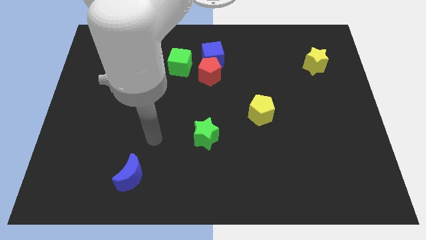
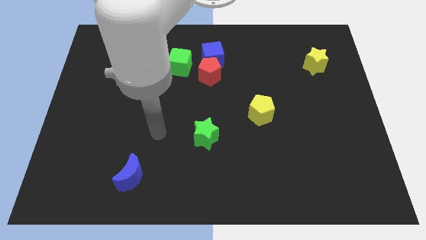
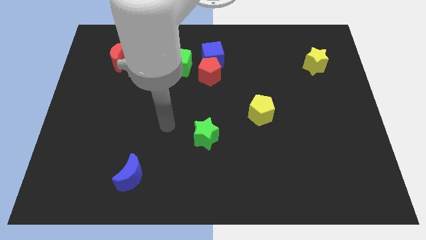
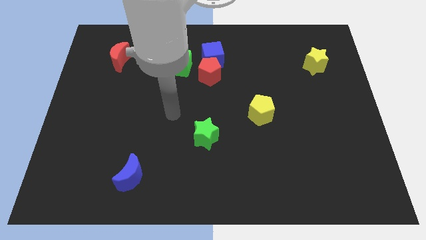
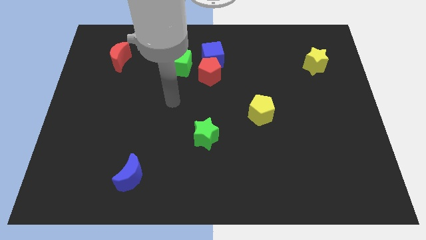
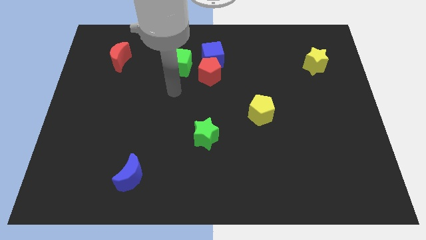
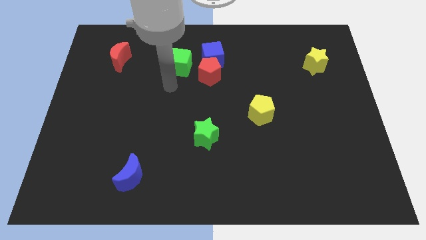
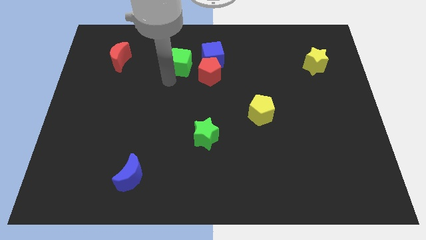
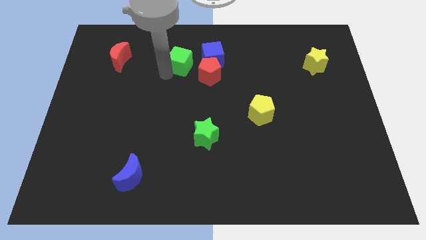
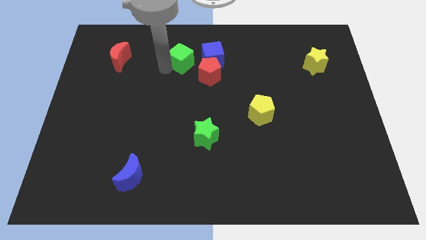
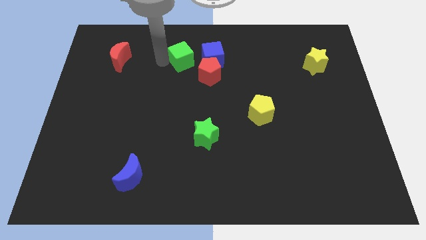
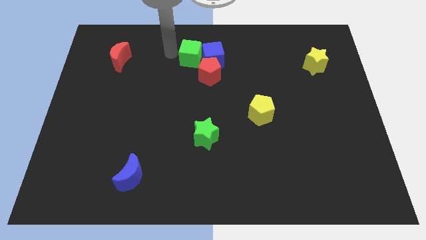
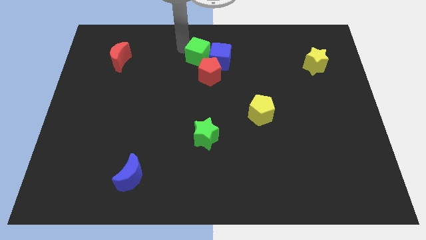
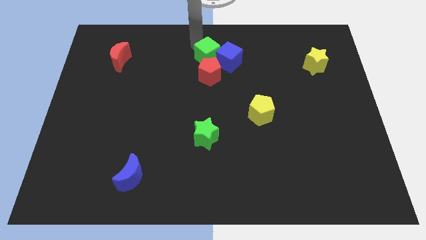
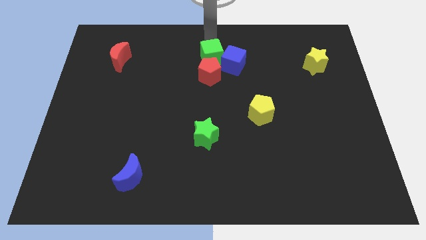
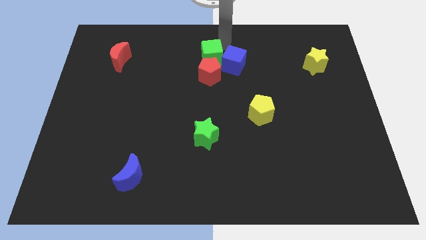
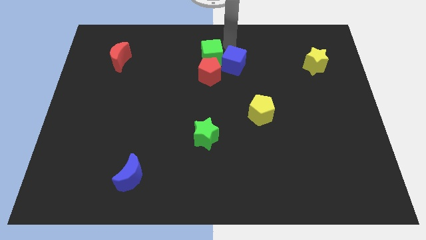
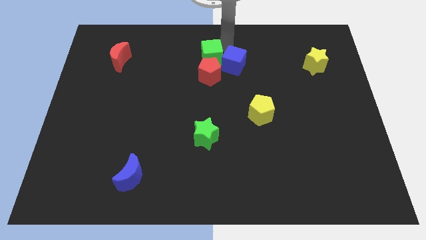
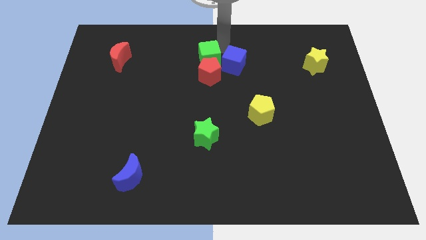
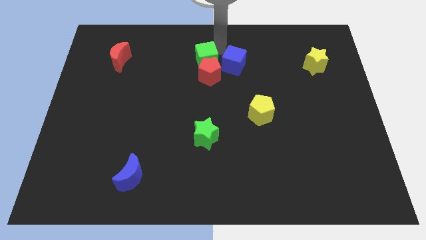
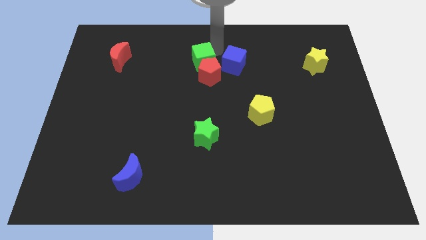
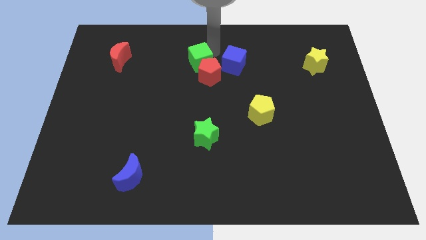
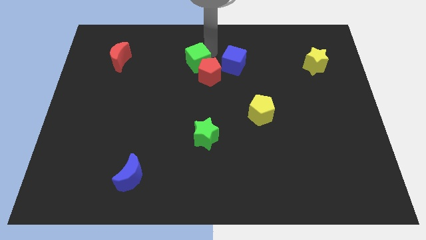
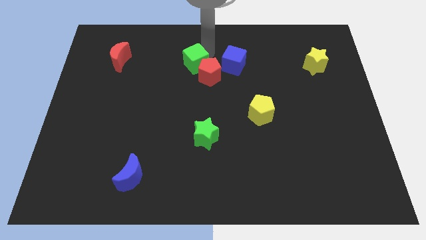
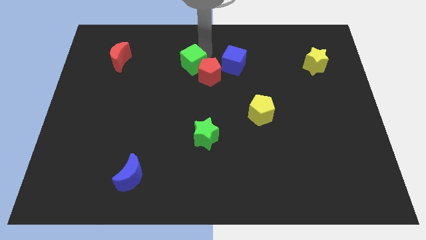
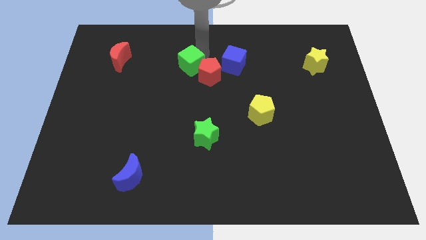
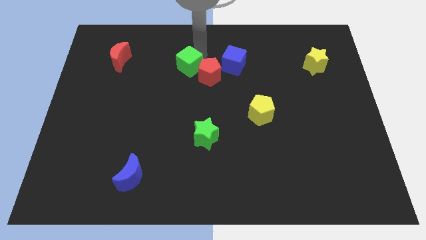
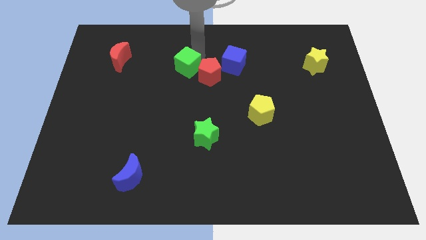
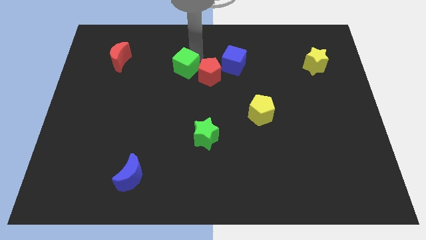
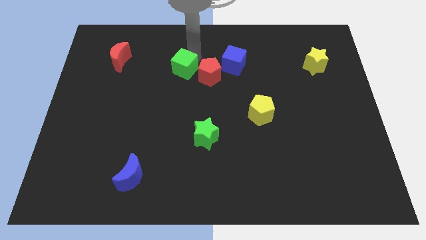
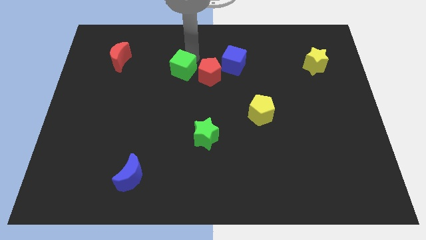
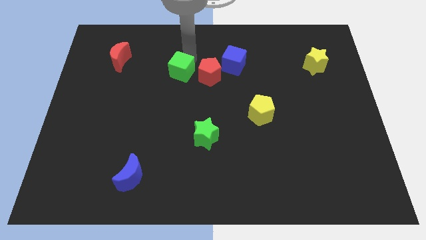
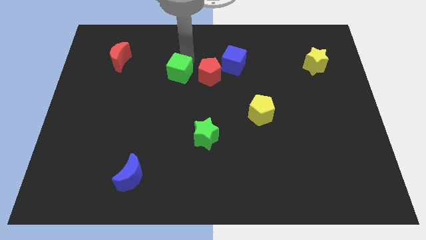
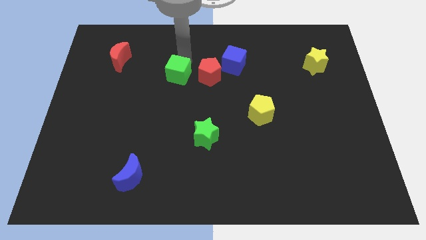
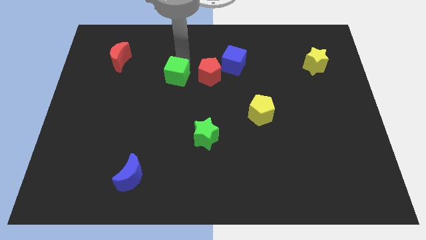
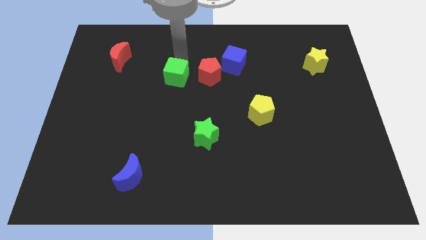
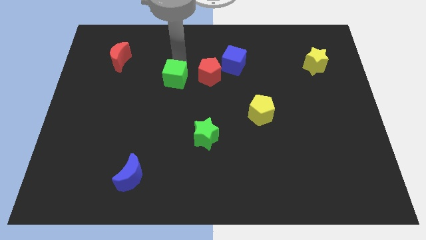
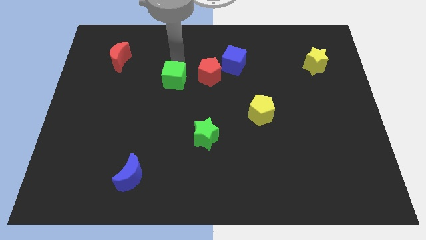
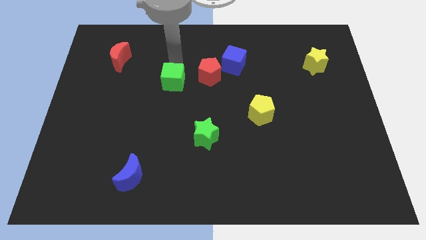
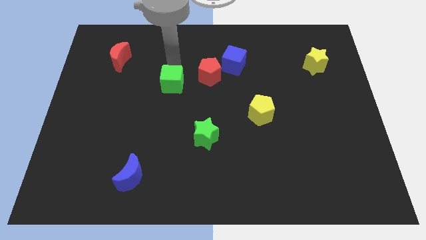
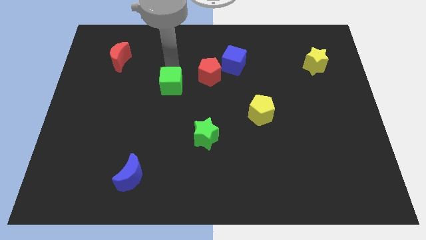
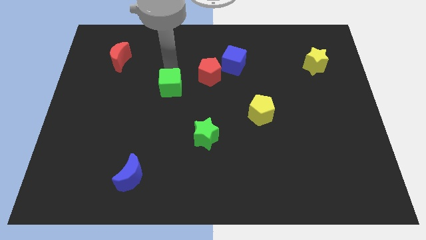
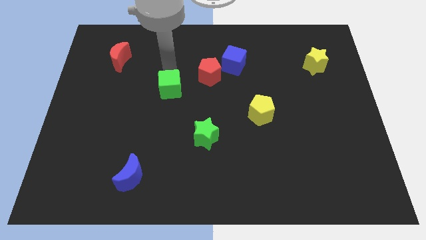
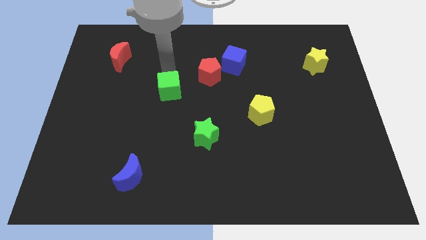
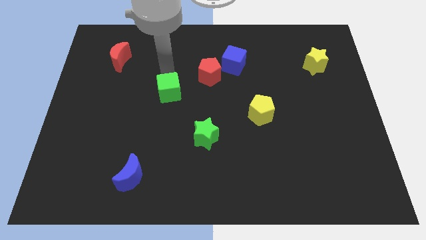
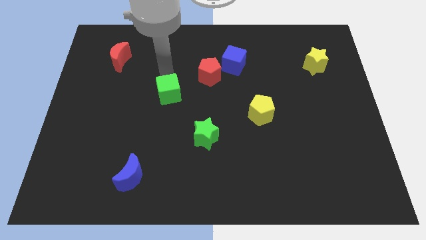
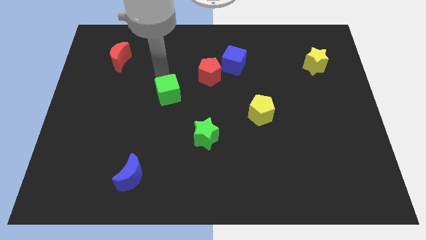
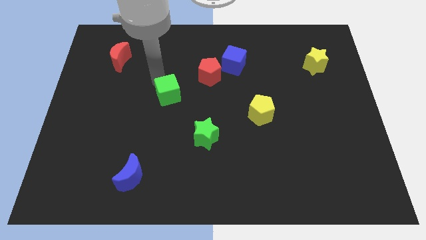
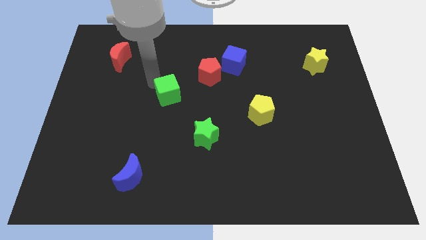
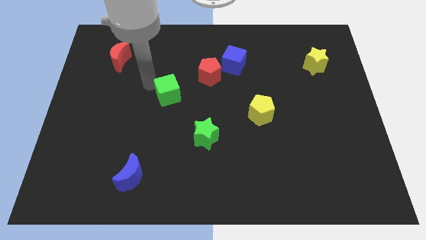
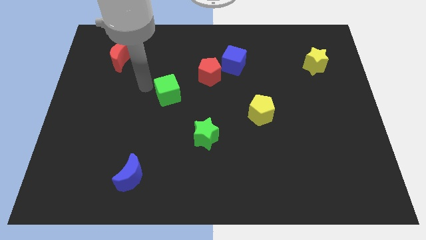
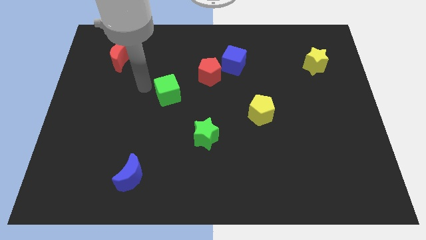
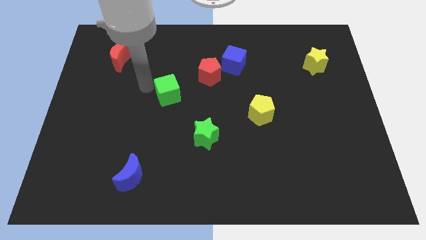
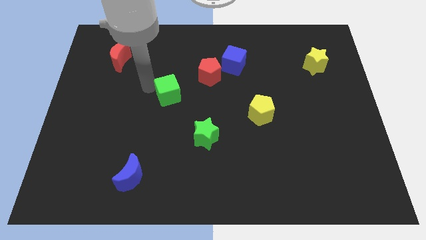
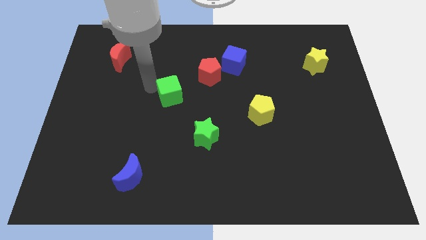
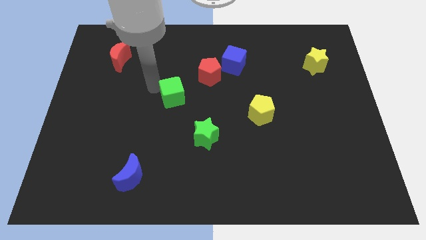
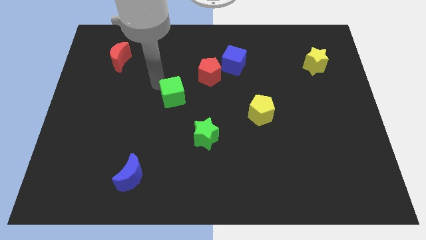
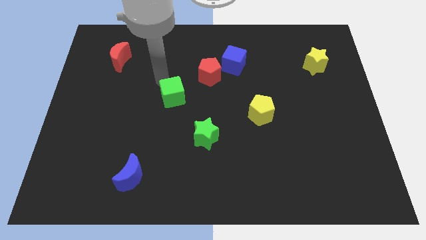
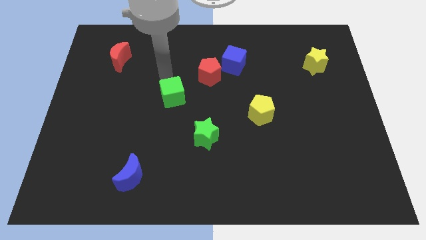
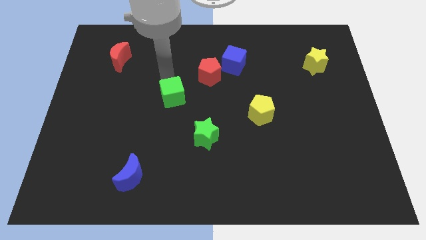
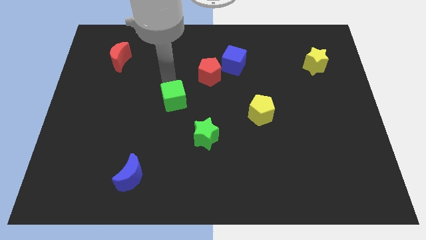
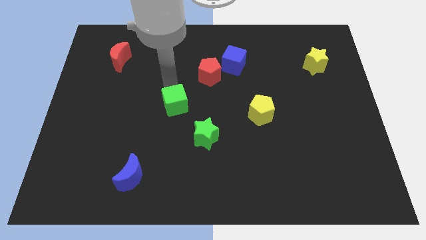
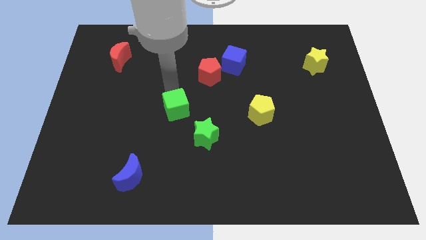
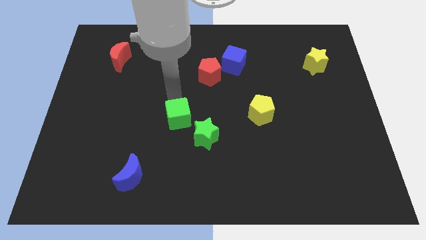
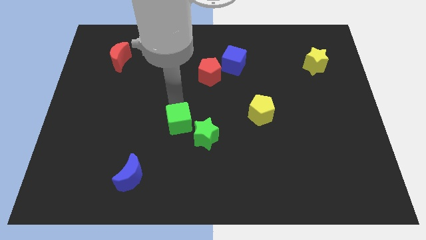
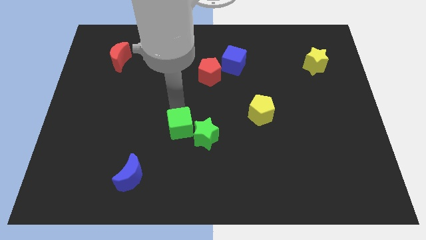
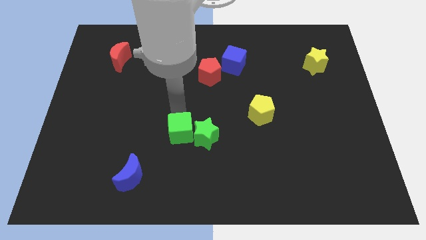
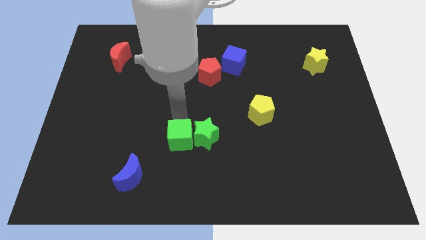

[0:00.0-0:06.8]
slide the green cube diagonally down and to the left of the green star

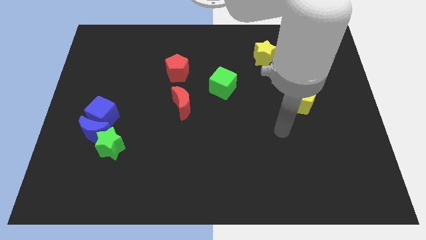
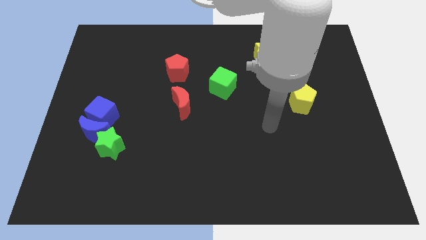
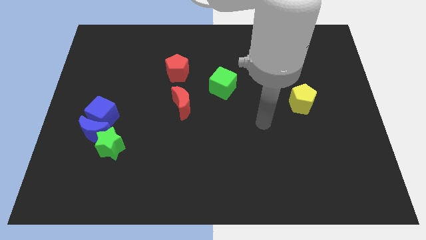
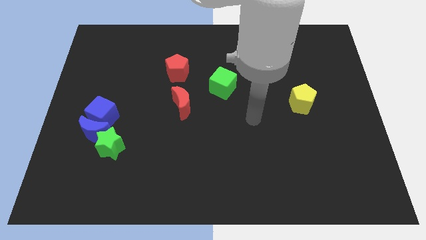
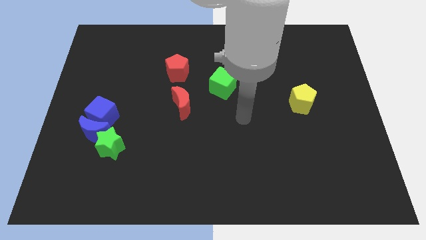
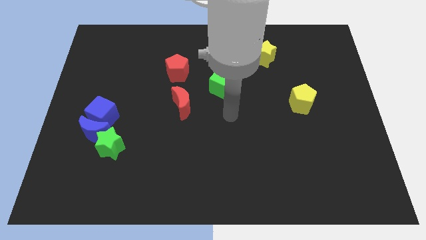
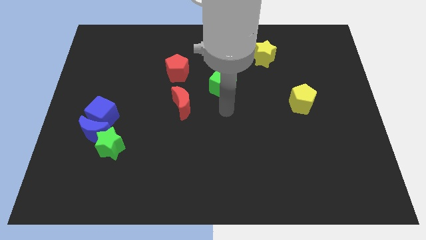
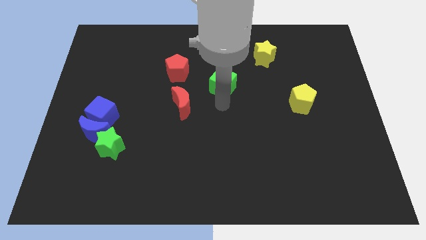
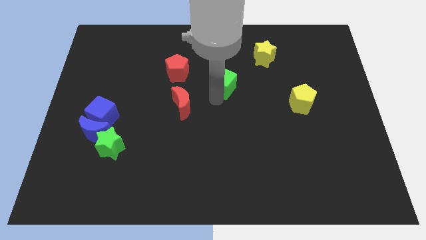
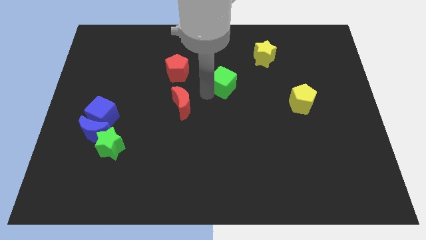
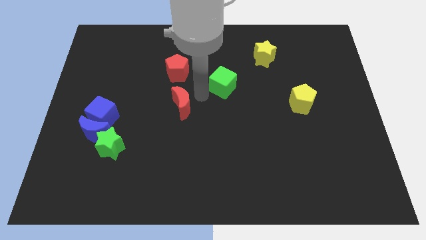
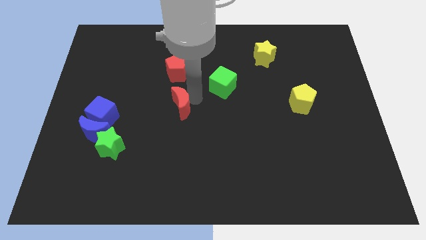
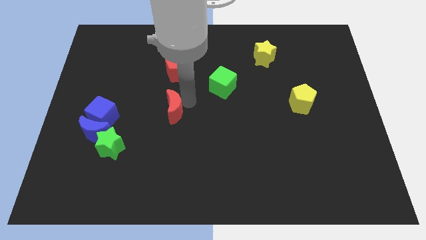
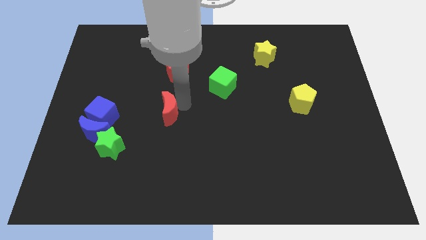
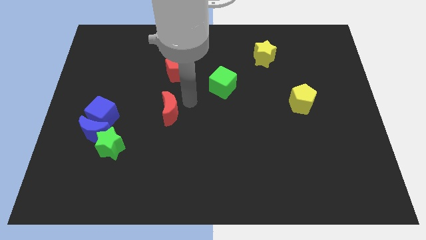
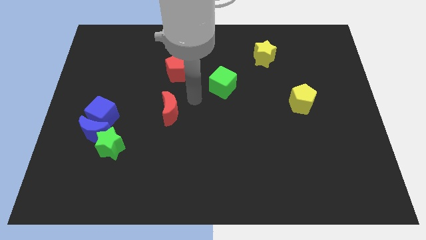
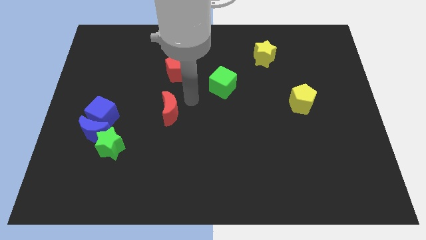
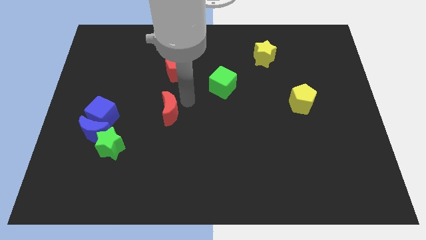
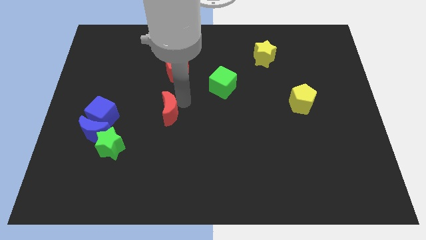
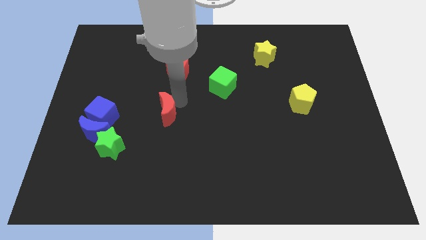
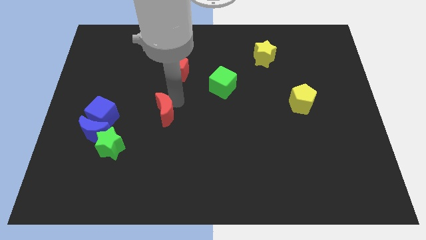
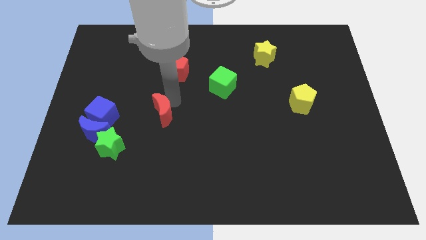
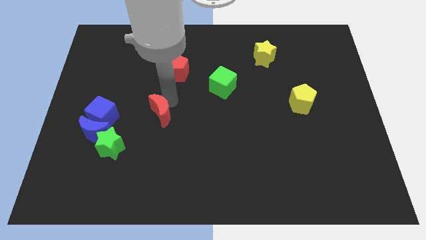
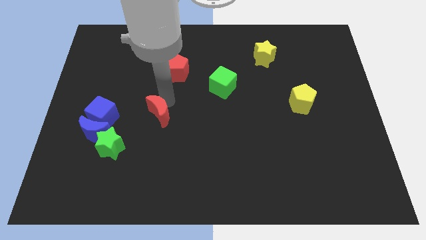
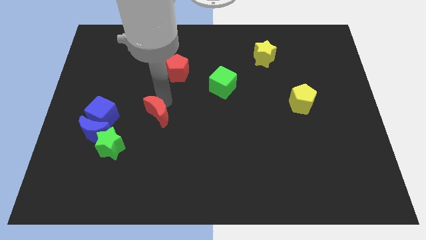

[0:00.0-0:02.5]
put the red moon to the top right of the green star
